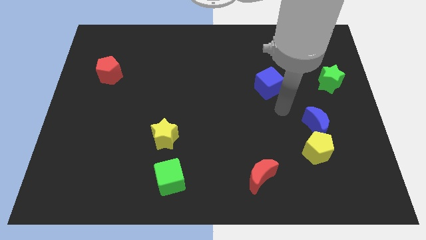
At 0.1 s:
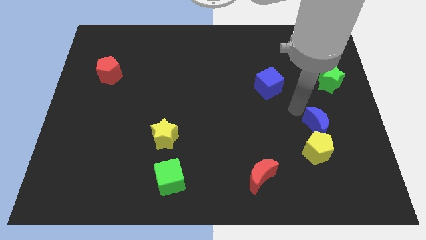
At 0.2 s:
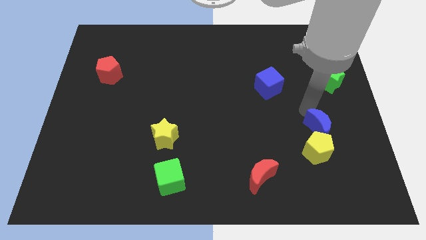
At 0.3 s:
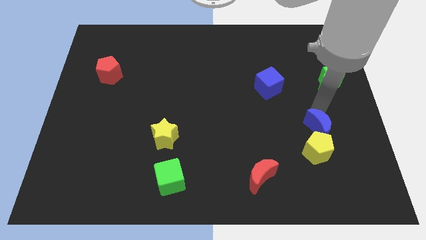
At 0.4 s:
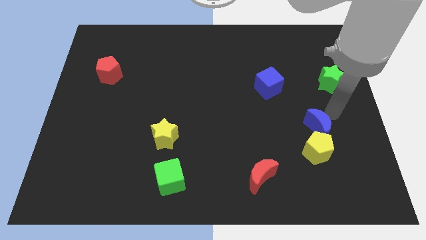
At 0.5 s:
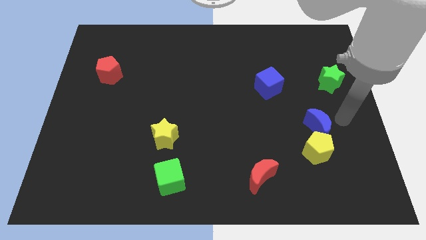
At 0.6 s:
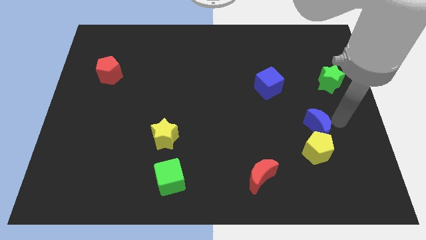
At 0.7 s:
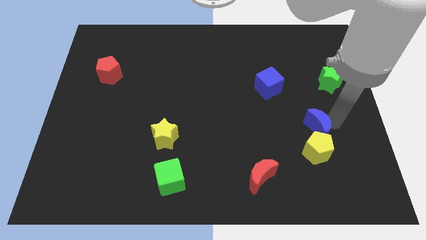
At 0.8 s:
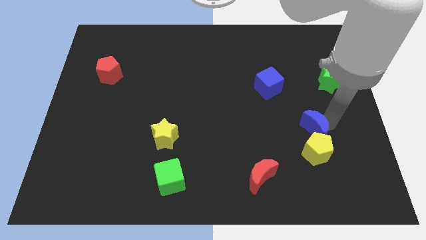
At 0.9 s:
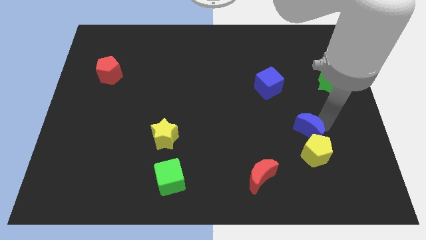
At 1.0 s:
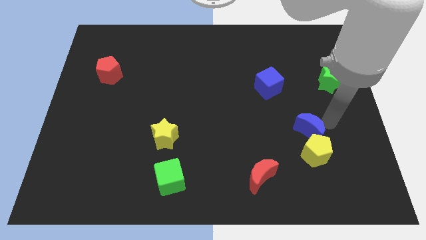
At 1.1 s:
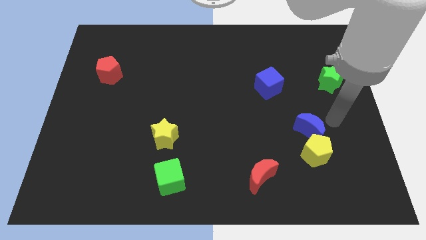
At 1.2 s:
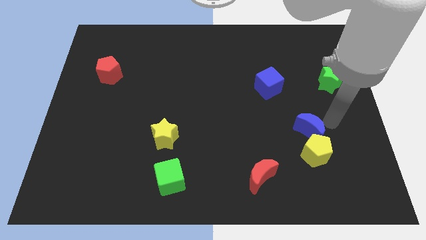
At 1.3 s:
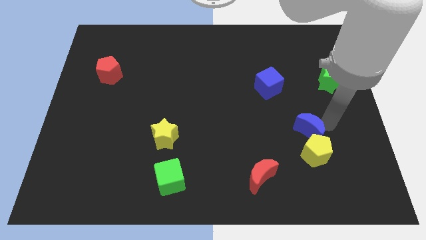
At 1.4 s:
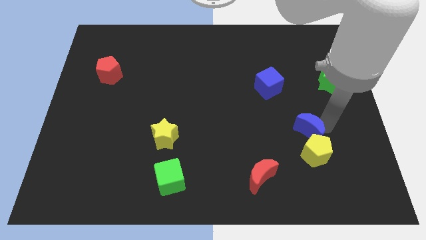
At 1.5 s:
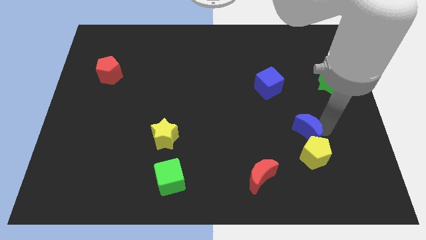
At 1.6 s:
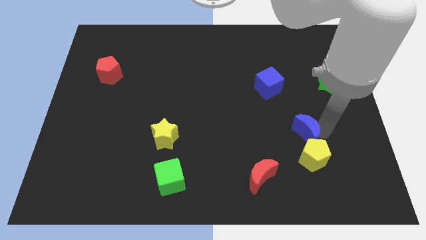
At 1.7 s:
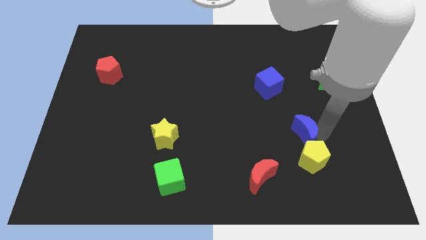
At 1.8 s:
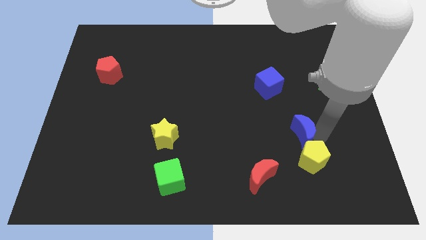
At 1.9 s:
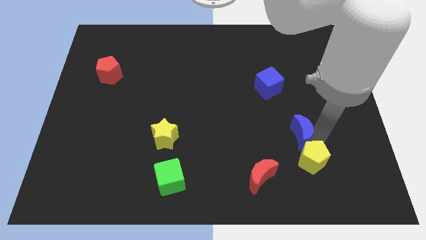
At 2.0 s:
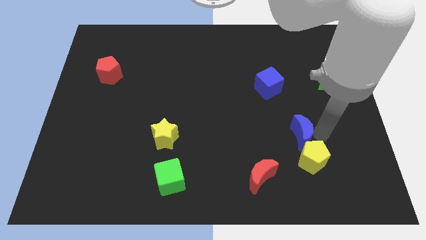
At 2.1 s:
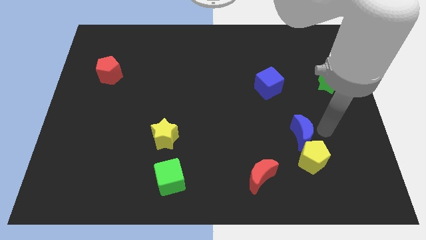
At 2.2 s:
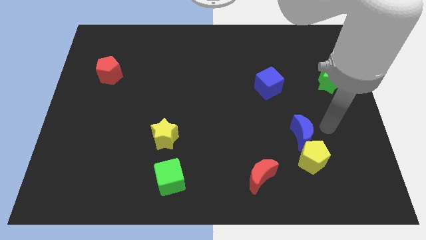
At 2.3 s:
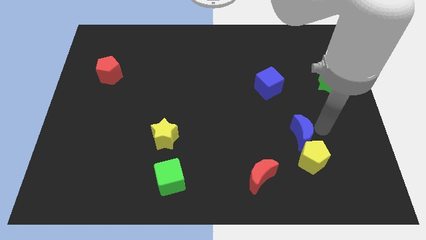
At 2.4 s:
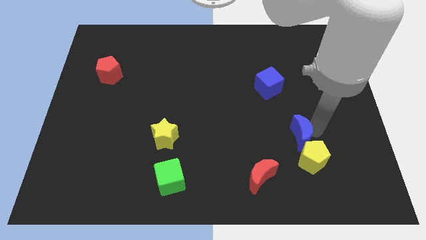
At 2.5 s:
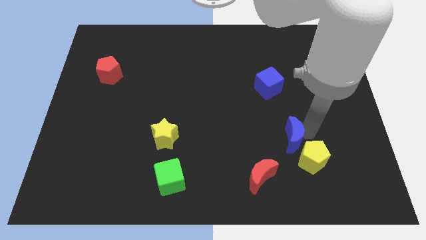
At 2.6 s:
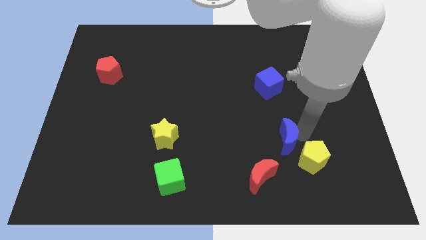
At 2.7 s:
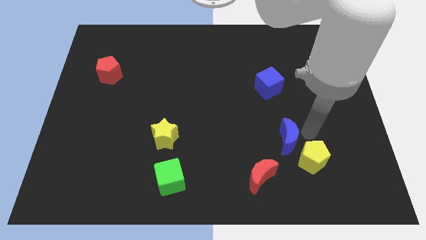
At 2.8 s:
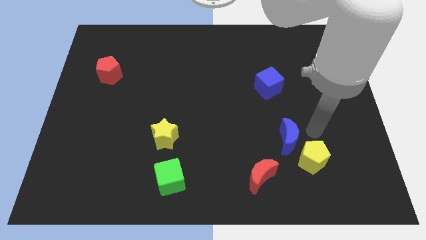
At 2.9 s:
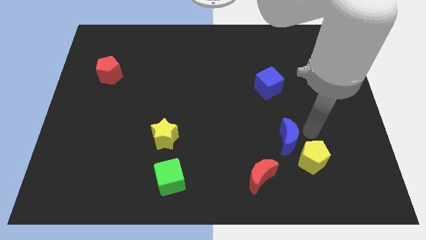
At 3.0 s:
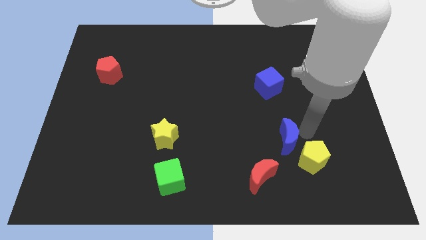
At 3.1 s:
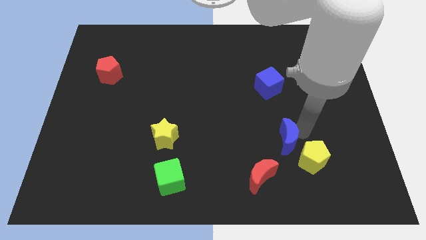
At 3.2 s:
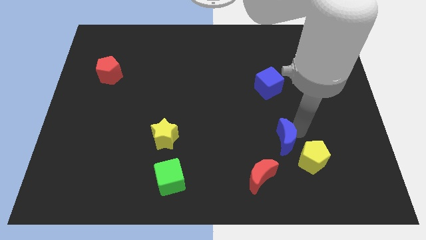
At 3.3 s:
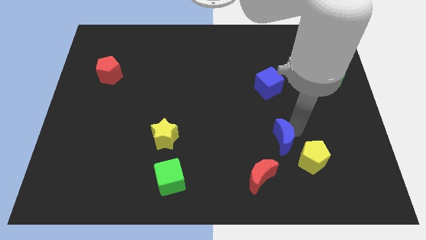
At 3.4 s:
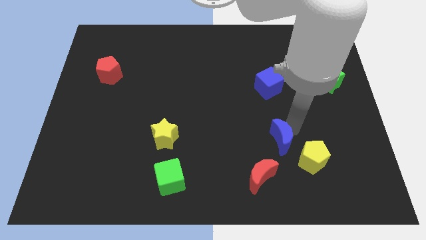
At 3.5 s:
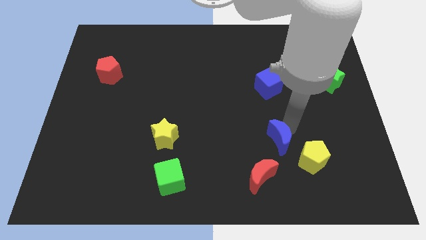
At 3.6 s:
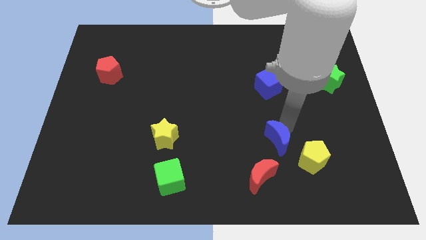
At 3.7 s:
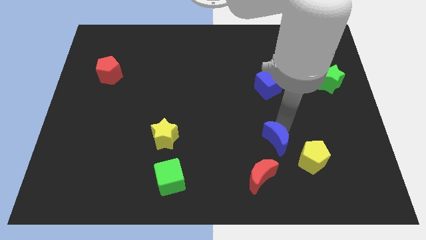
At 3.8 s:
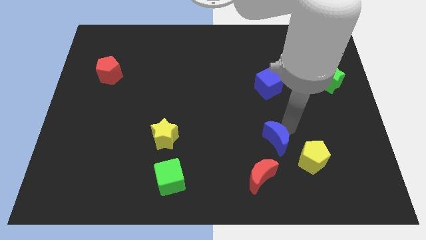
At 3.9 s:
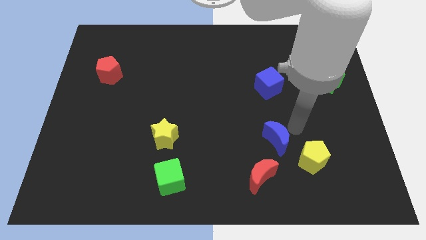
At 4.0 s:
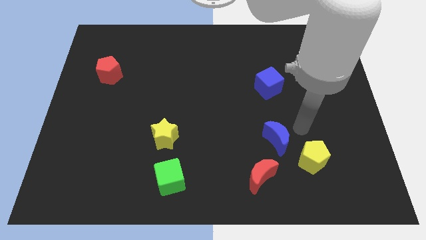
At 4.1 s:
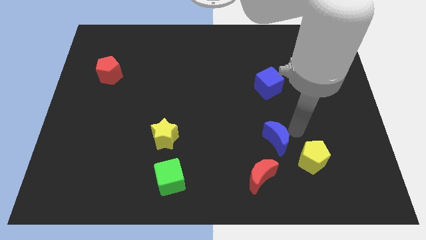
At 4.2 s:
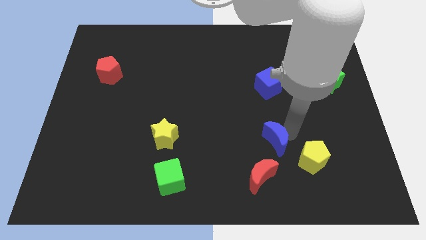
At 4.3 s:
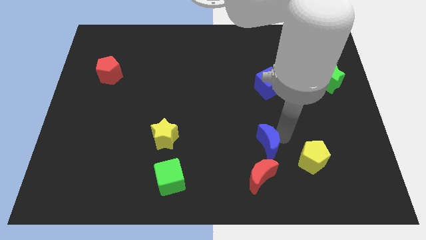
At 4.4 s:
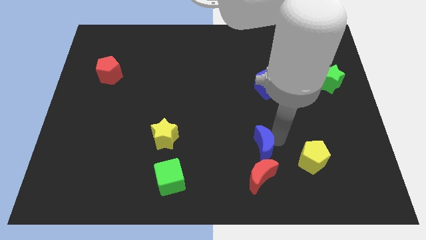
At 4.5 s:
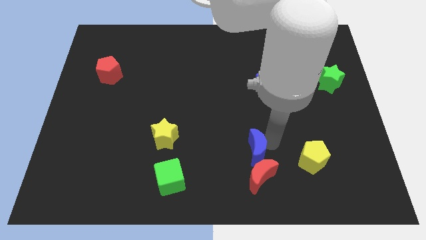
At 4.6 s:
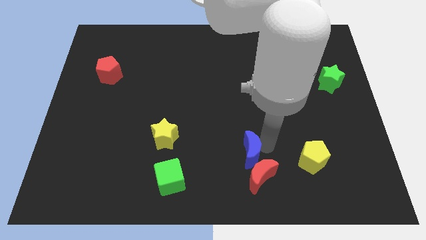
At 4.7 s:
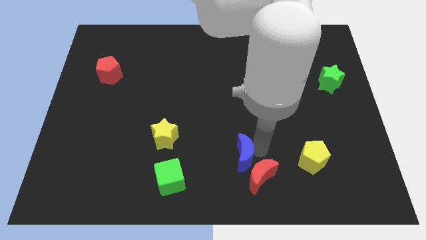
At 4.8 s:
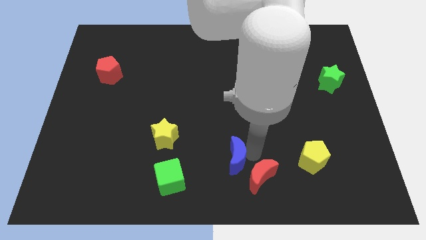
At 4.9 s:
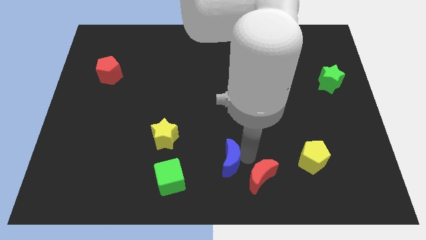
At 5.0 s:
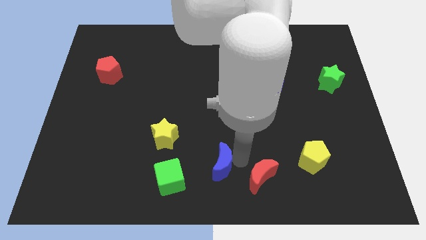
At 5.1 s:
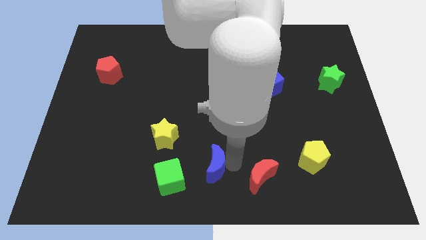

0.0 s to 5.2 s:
push the blue moon to the top right of the green cube

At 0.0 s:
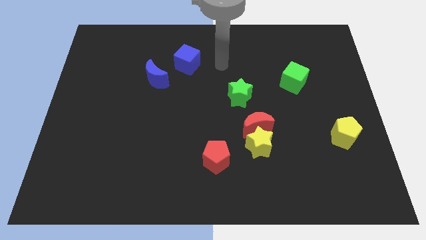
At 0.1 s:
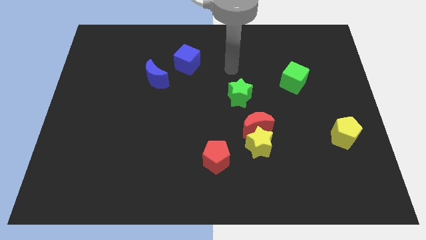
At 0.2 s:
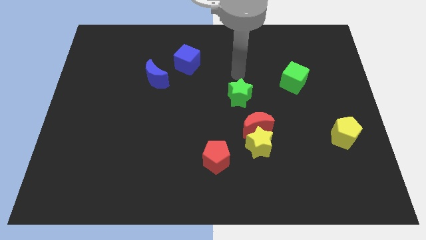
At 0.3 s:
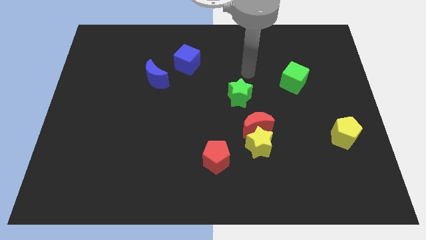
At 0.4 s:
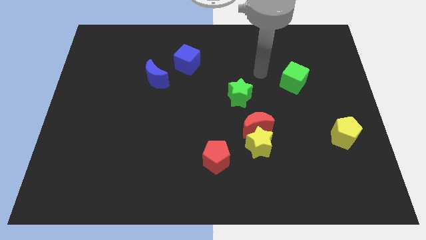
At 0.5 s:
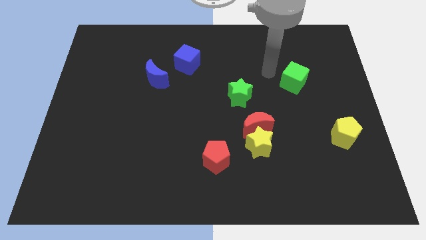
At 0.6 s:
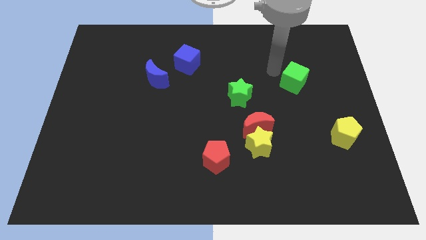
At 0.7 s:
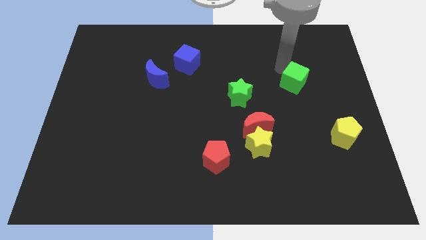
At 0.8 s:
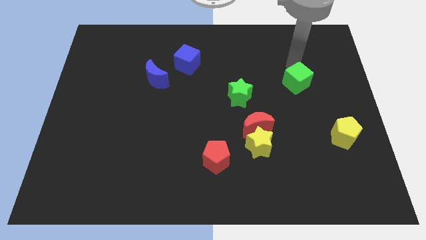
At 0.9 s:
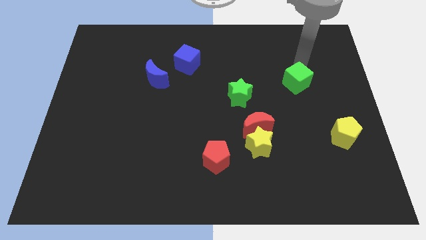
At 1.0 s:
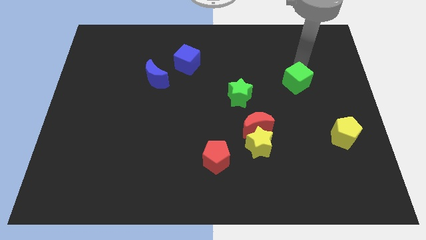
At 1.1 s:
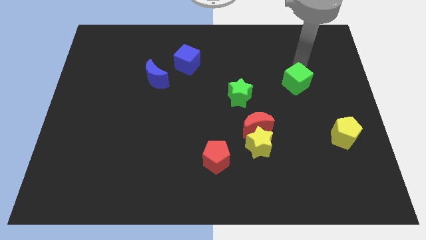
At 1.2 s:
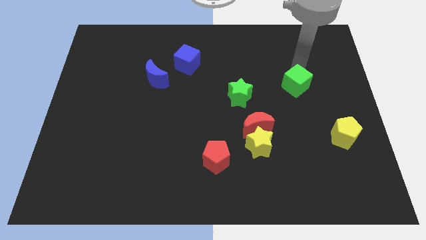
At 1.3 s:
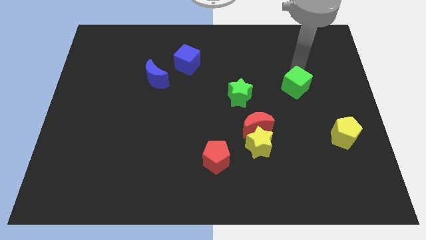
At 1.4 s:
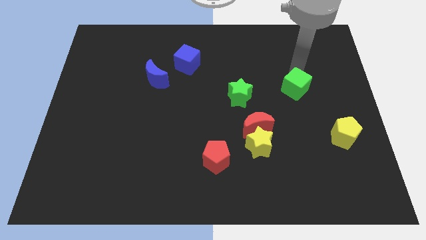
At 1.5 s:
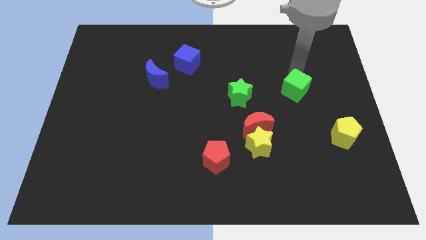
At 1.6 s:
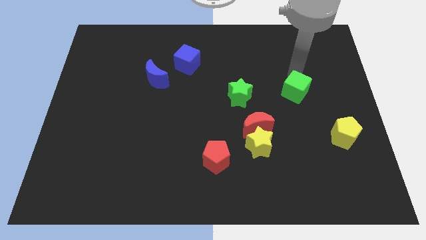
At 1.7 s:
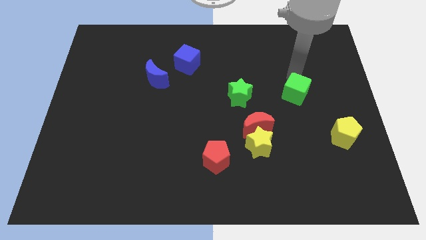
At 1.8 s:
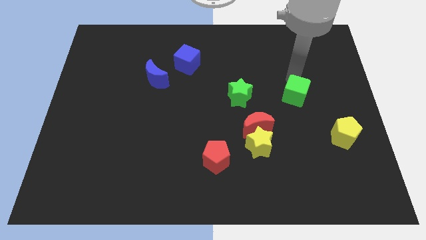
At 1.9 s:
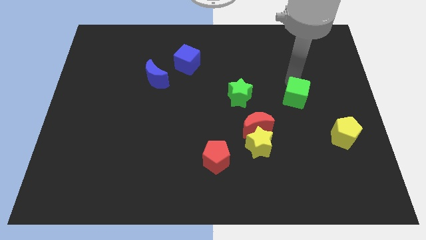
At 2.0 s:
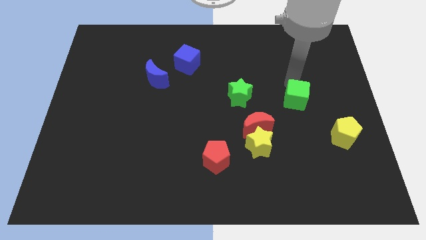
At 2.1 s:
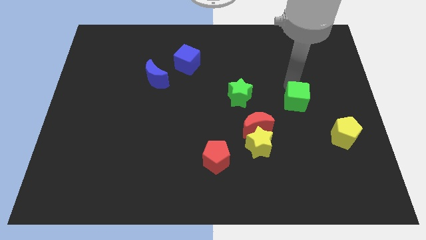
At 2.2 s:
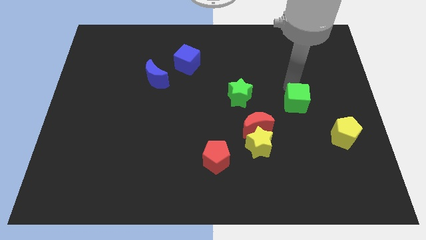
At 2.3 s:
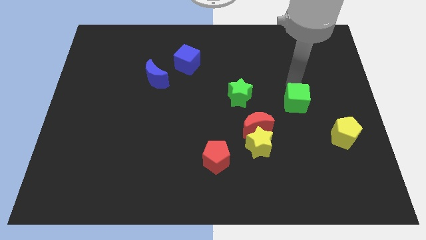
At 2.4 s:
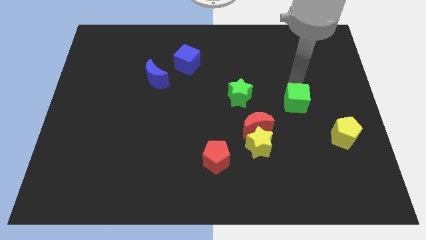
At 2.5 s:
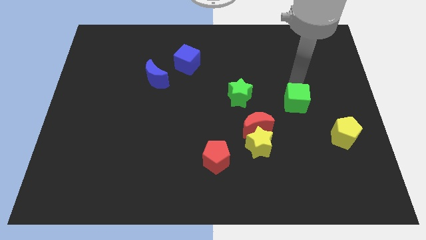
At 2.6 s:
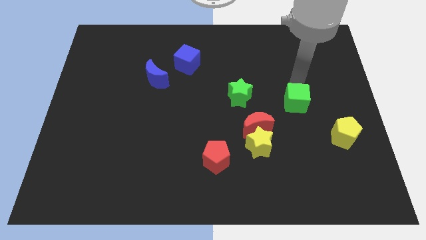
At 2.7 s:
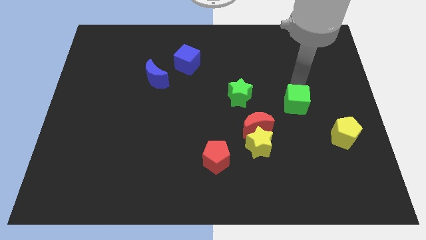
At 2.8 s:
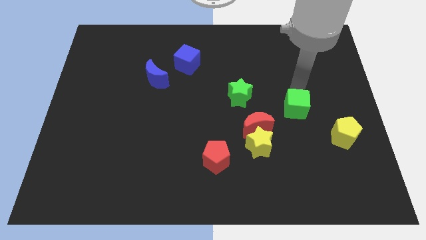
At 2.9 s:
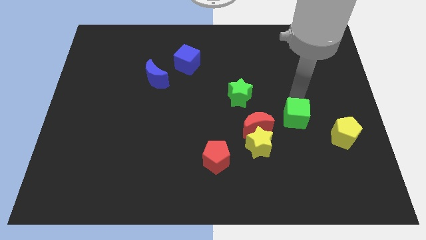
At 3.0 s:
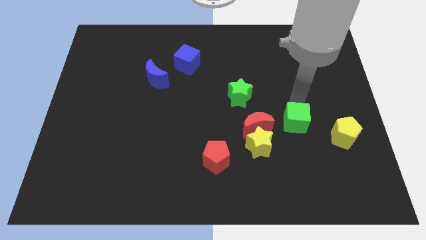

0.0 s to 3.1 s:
put the green cube to the left of the yellow pentagon
